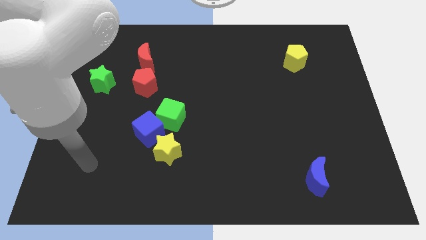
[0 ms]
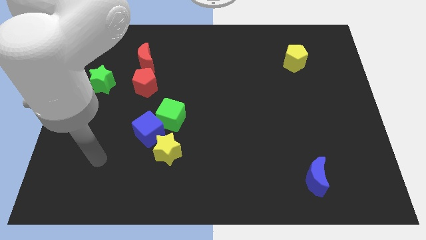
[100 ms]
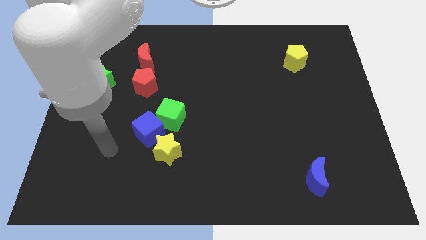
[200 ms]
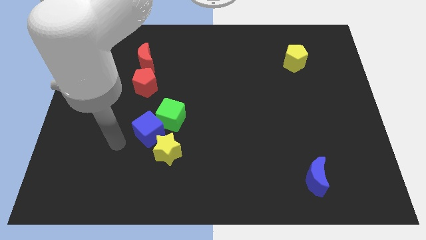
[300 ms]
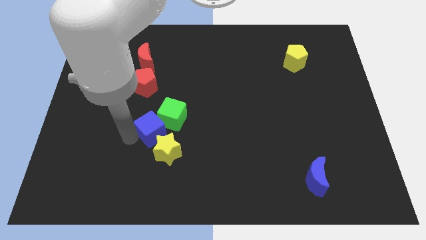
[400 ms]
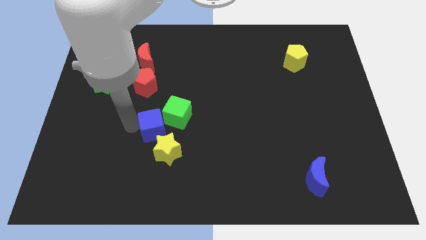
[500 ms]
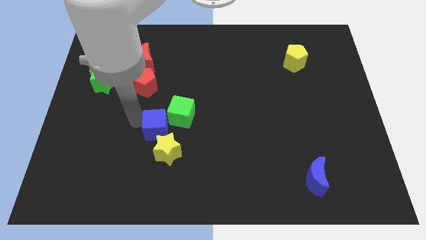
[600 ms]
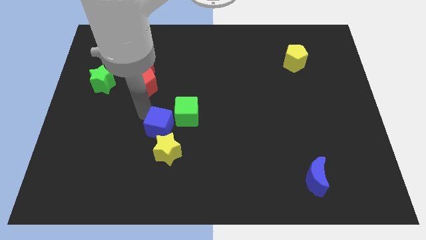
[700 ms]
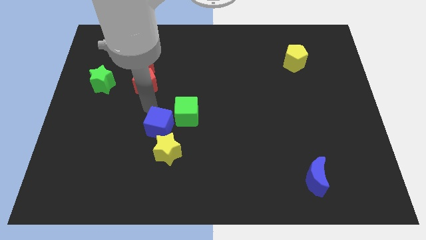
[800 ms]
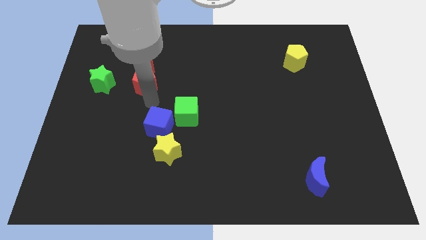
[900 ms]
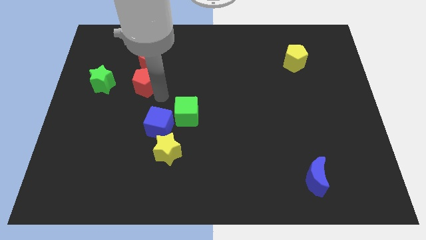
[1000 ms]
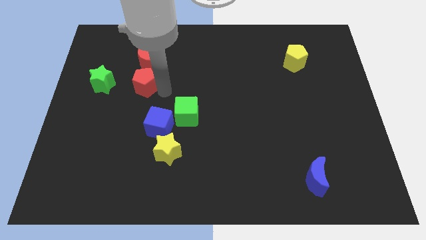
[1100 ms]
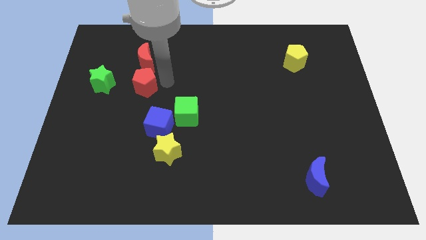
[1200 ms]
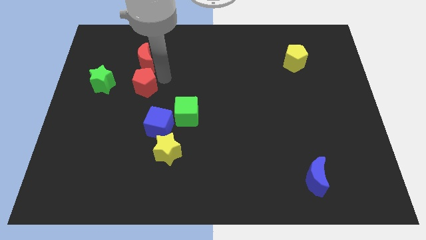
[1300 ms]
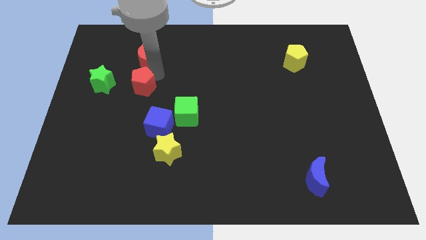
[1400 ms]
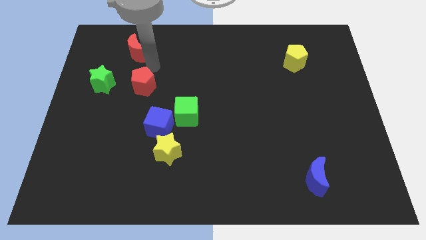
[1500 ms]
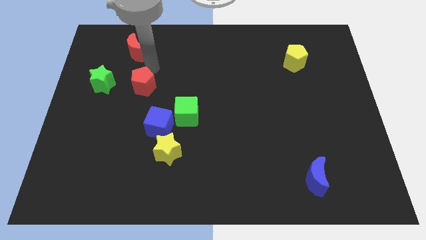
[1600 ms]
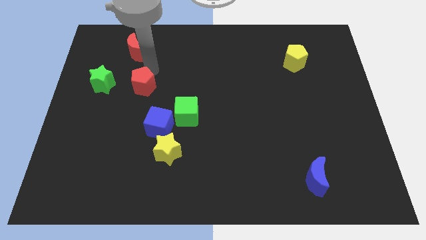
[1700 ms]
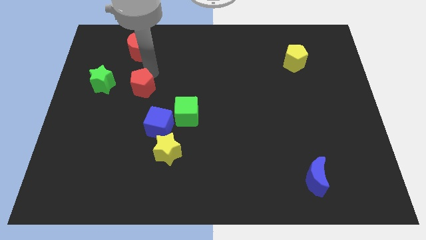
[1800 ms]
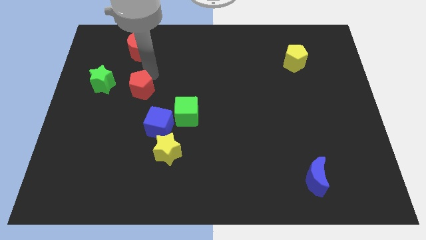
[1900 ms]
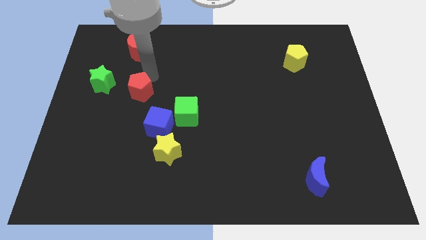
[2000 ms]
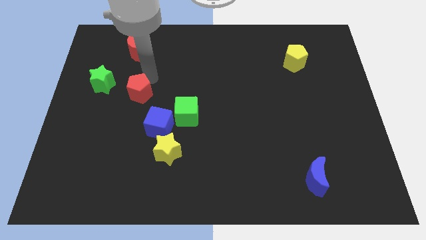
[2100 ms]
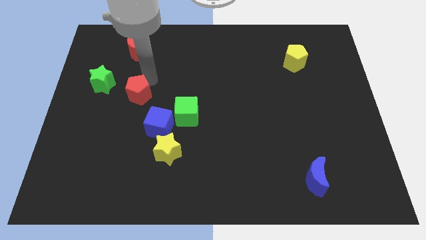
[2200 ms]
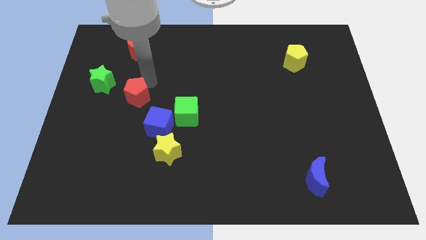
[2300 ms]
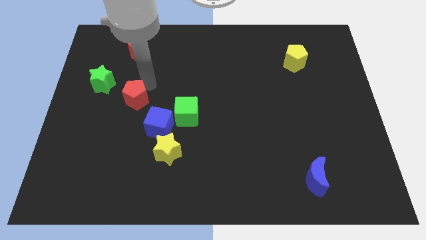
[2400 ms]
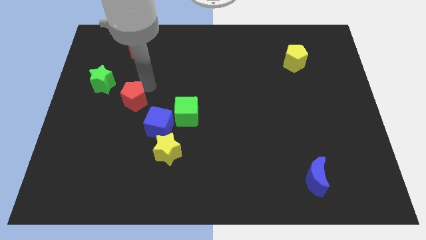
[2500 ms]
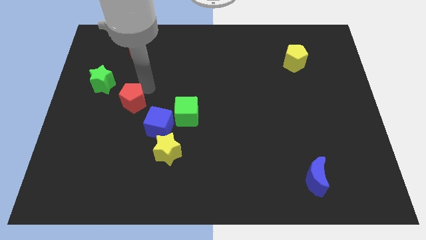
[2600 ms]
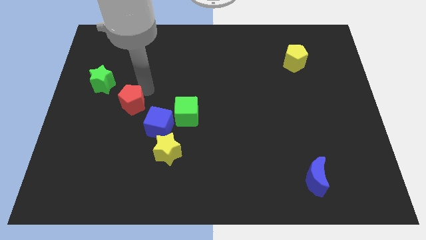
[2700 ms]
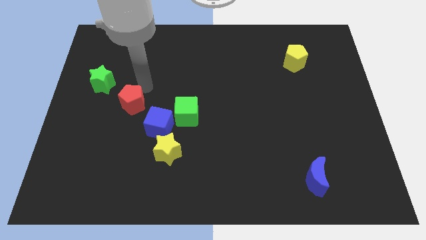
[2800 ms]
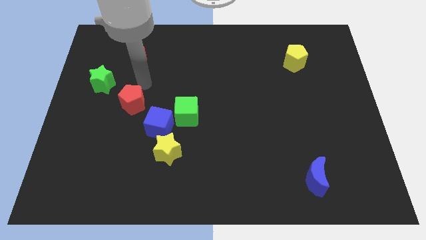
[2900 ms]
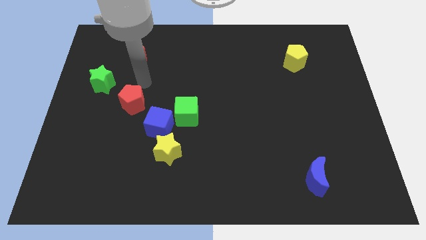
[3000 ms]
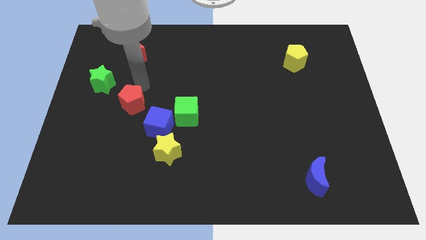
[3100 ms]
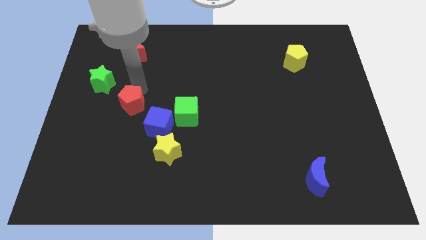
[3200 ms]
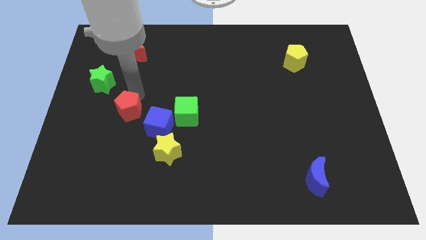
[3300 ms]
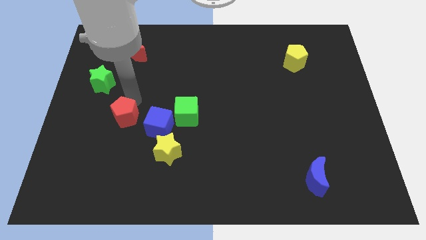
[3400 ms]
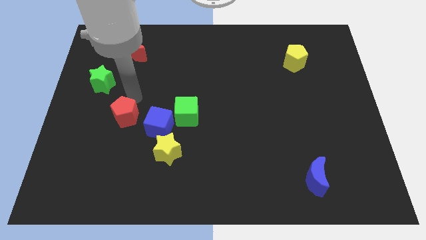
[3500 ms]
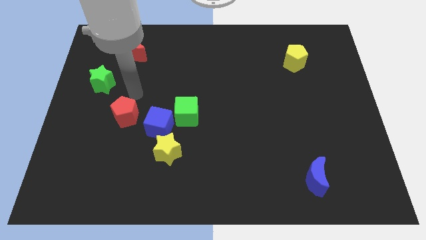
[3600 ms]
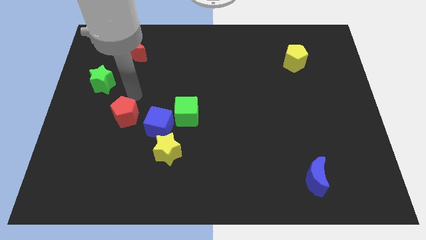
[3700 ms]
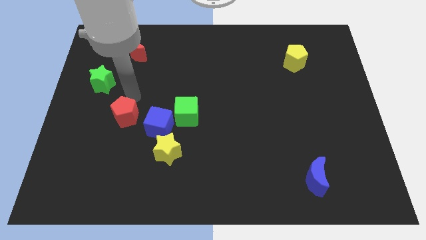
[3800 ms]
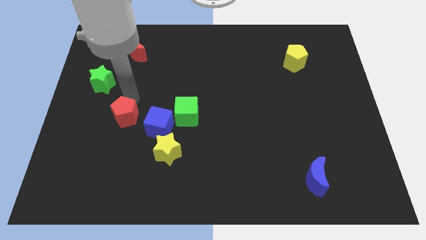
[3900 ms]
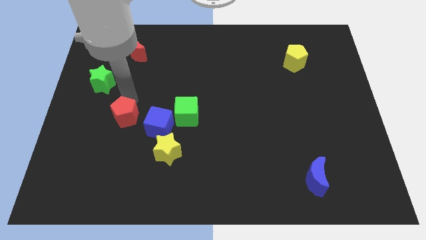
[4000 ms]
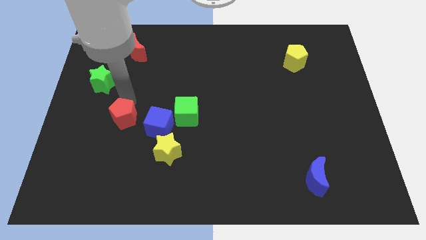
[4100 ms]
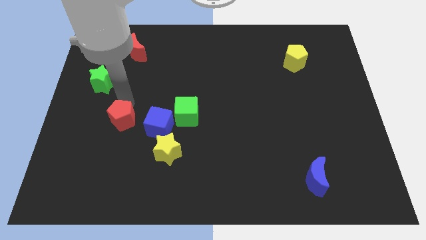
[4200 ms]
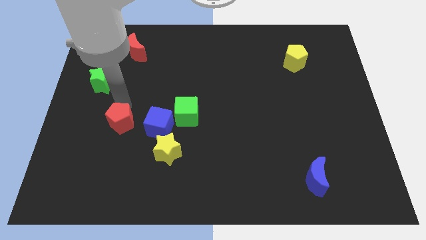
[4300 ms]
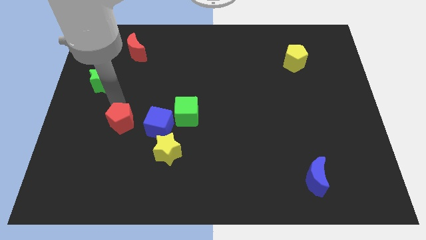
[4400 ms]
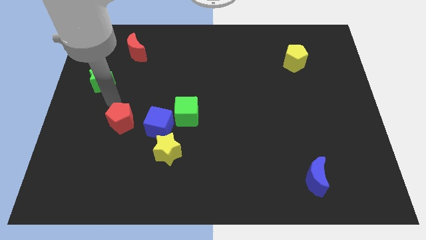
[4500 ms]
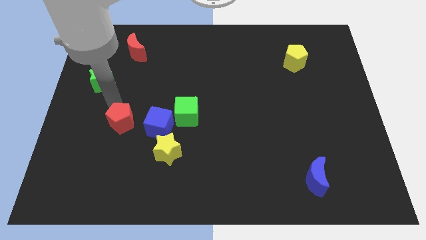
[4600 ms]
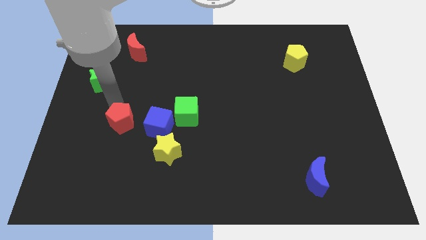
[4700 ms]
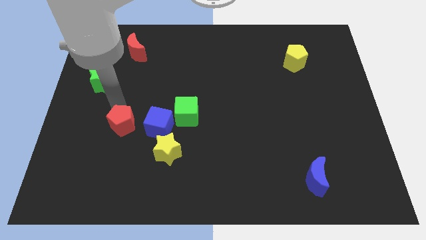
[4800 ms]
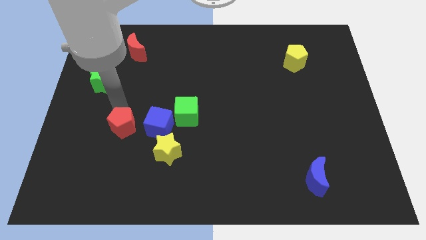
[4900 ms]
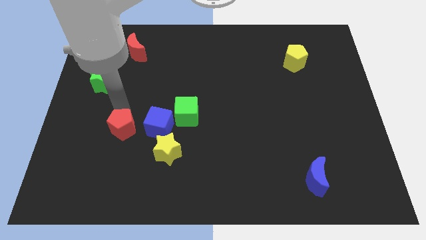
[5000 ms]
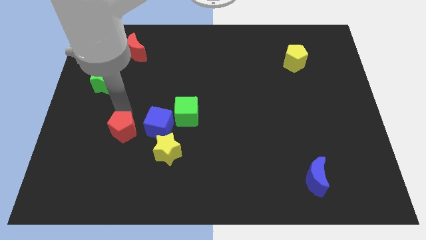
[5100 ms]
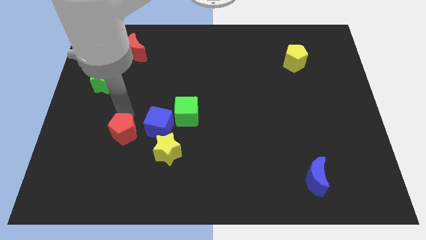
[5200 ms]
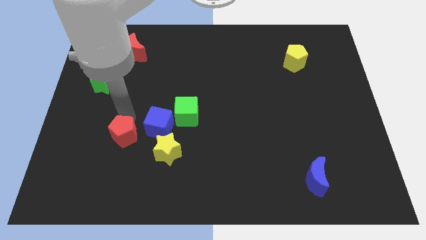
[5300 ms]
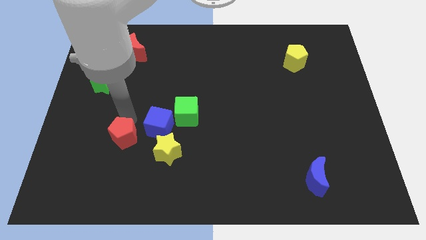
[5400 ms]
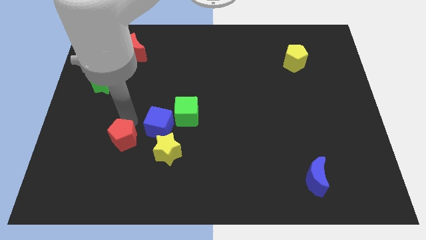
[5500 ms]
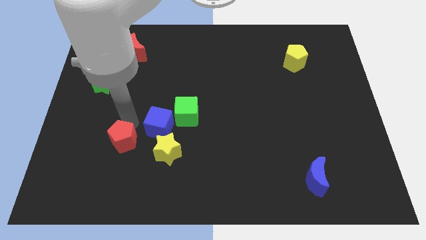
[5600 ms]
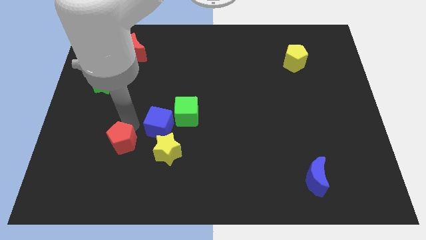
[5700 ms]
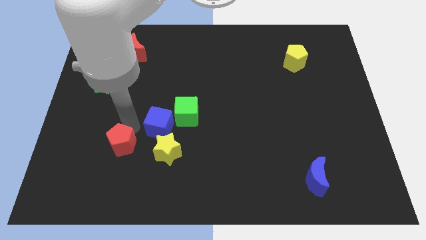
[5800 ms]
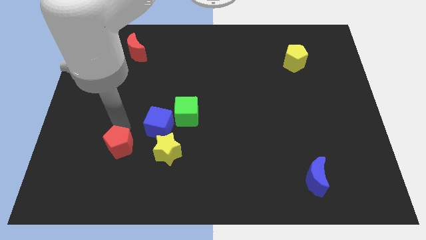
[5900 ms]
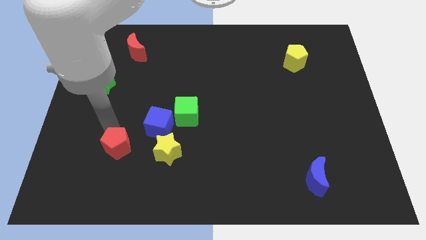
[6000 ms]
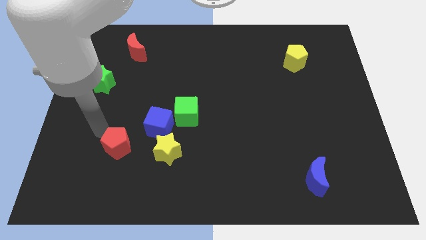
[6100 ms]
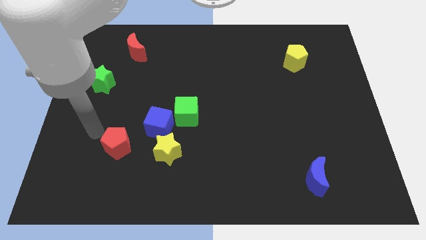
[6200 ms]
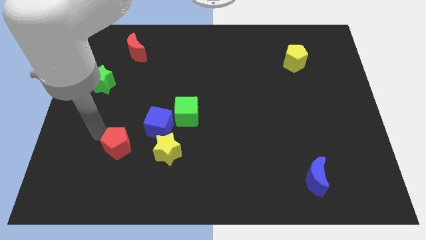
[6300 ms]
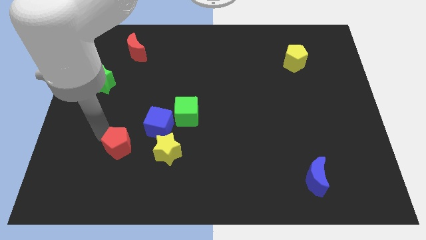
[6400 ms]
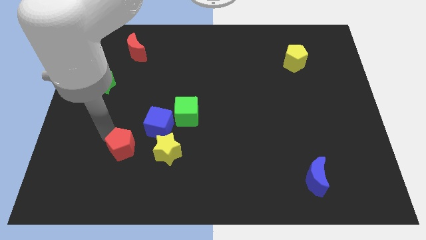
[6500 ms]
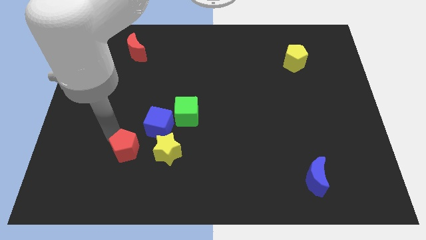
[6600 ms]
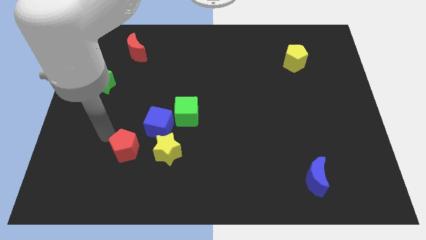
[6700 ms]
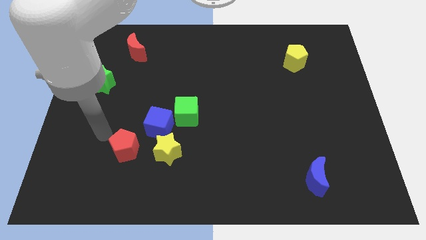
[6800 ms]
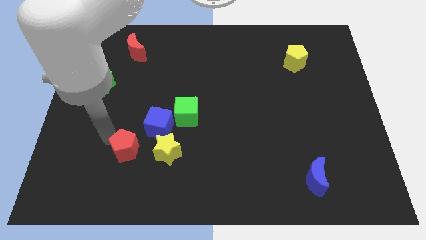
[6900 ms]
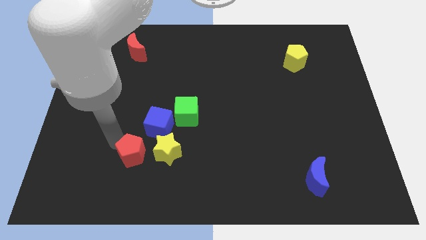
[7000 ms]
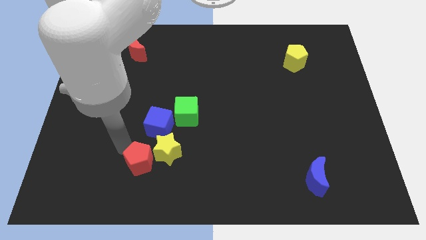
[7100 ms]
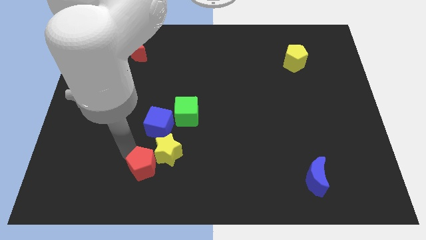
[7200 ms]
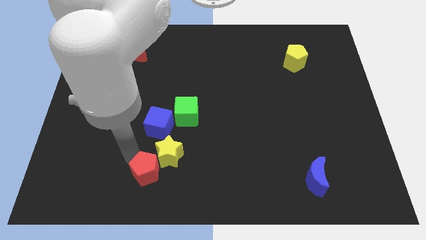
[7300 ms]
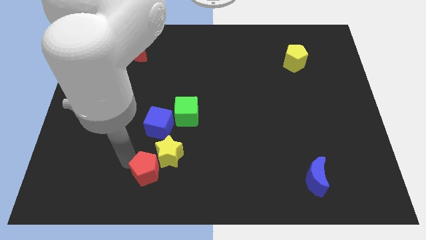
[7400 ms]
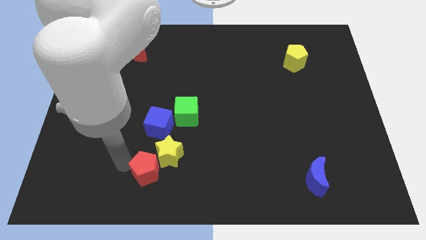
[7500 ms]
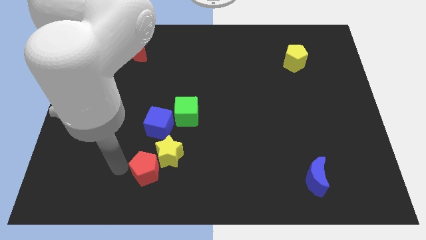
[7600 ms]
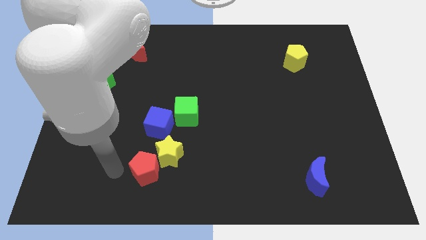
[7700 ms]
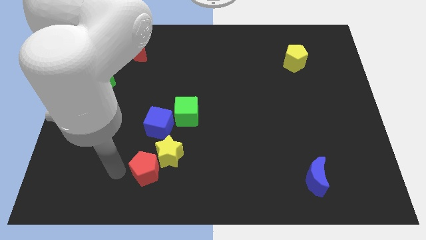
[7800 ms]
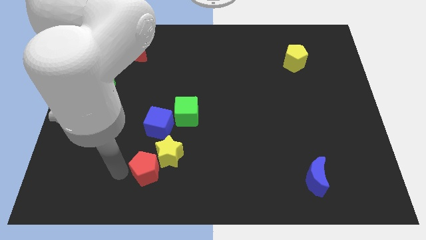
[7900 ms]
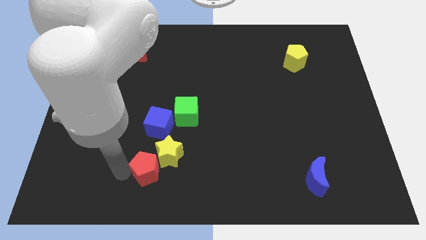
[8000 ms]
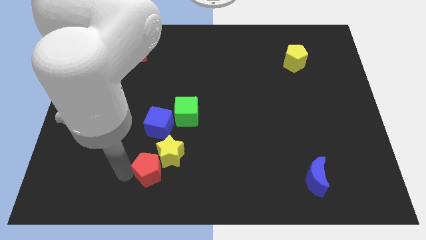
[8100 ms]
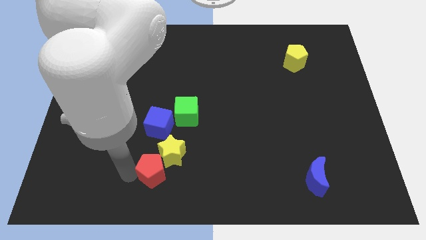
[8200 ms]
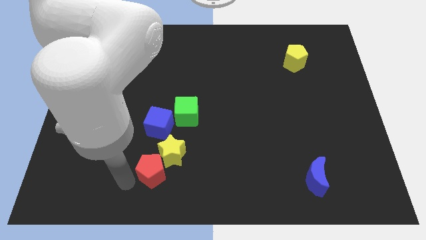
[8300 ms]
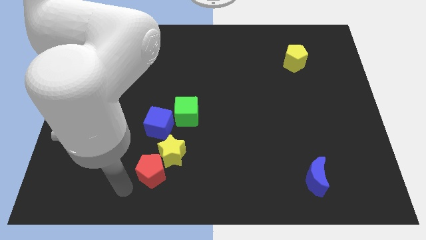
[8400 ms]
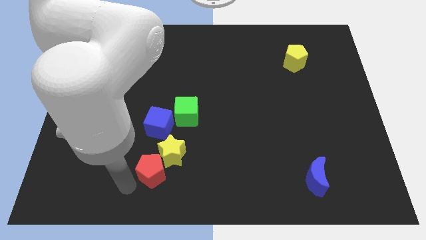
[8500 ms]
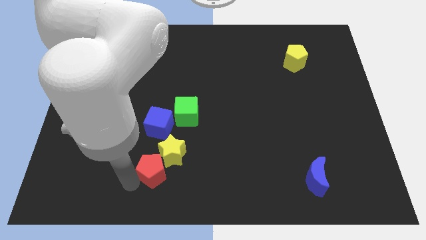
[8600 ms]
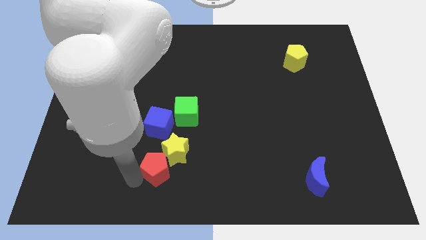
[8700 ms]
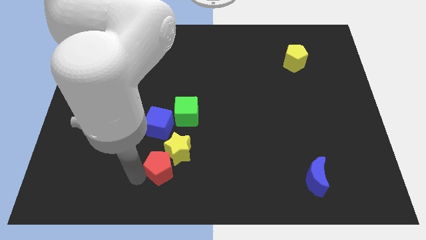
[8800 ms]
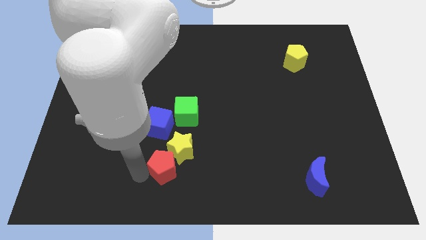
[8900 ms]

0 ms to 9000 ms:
push the red pentagon below the green cube
